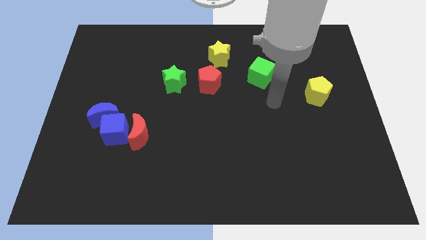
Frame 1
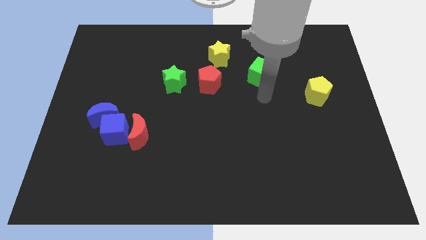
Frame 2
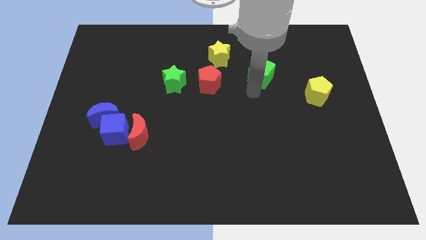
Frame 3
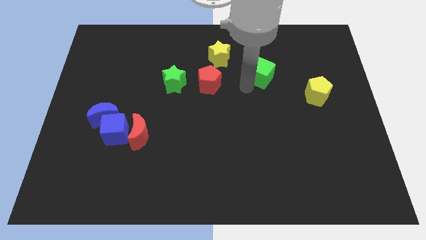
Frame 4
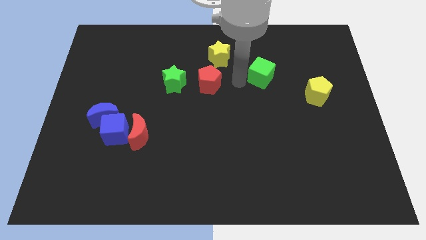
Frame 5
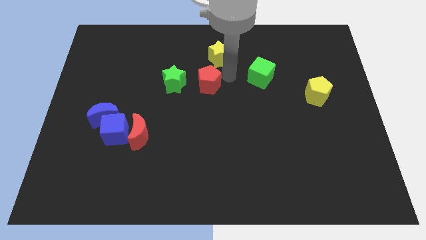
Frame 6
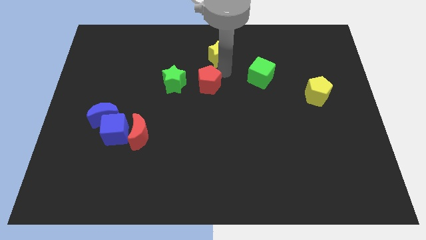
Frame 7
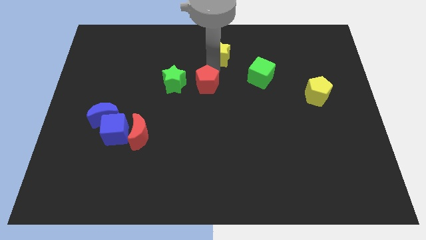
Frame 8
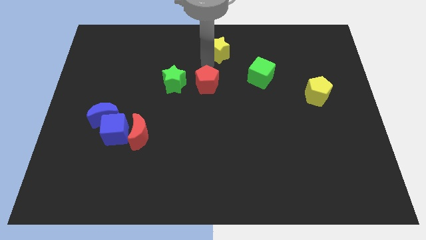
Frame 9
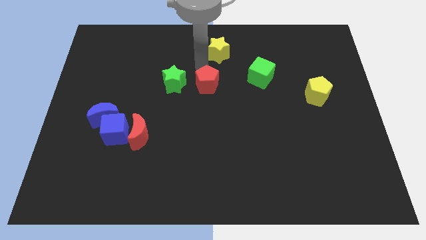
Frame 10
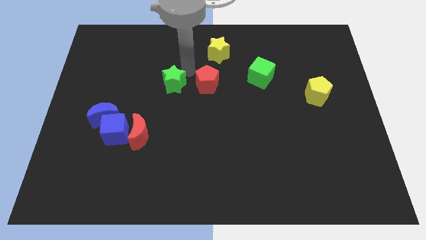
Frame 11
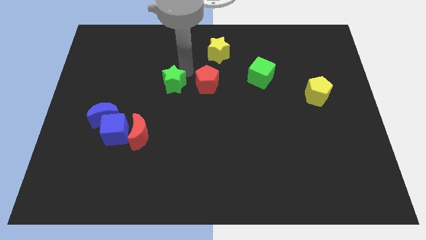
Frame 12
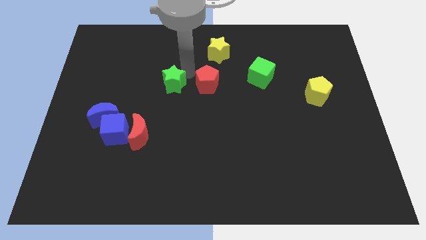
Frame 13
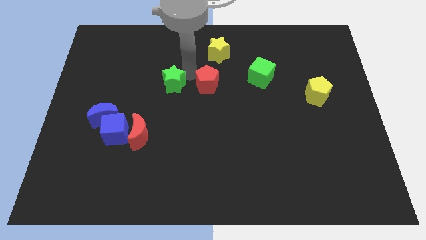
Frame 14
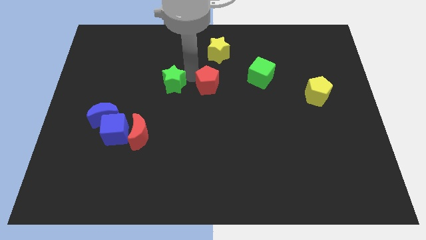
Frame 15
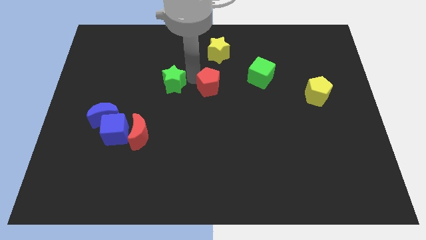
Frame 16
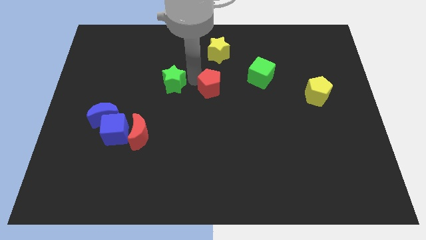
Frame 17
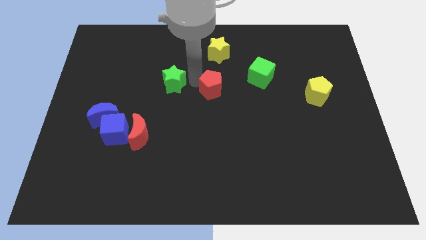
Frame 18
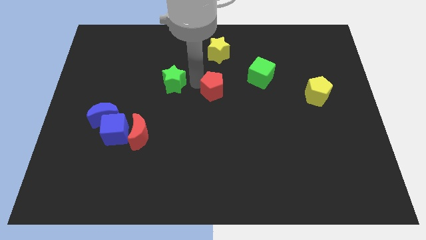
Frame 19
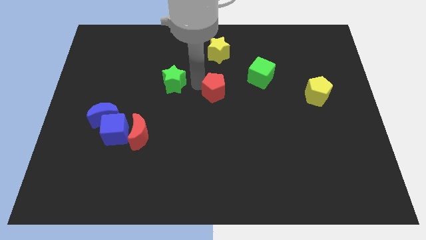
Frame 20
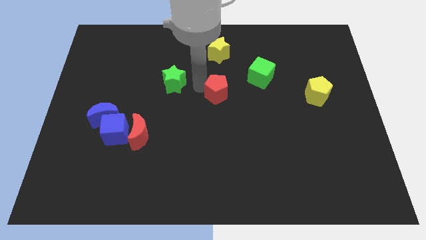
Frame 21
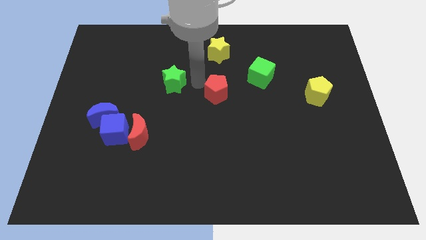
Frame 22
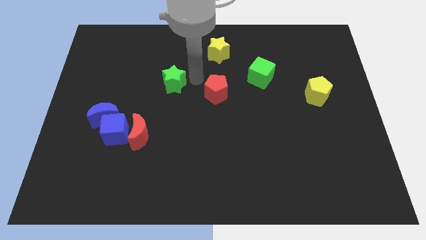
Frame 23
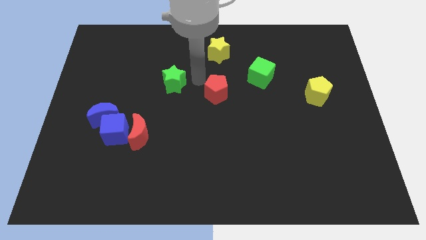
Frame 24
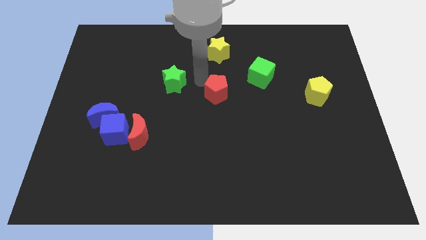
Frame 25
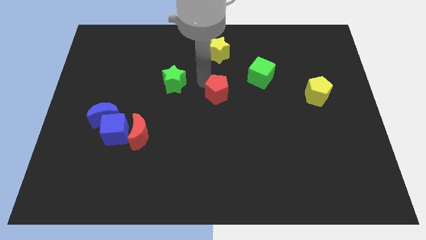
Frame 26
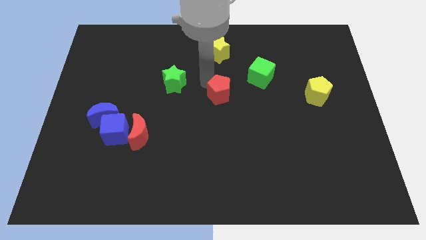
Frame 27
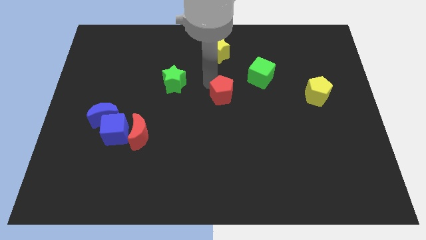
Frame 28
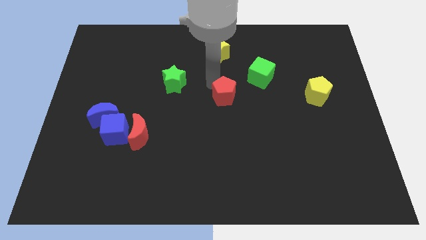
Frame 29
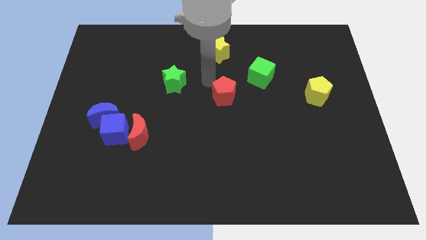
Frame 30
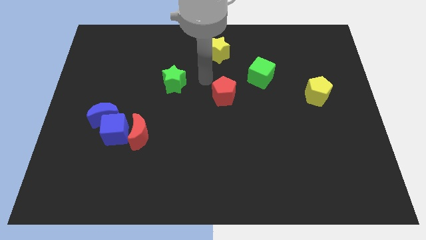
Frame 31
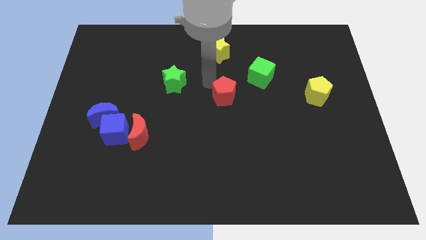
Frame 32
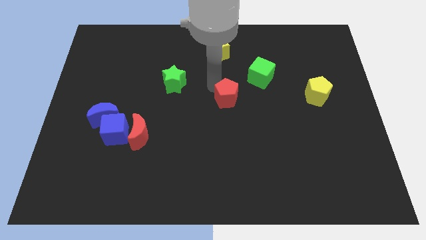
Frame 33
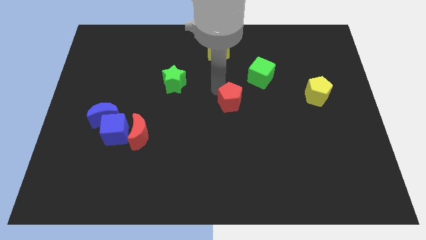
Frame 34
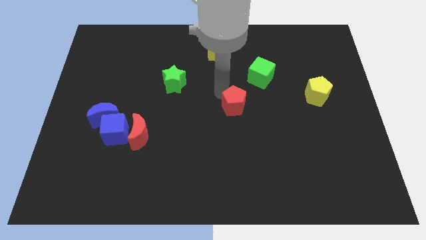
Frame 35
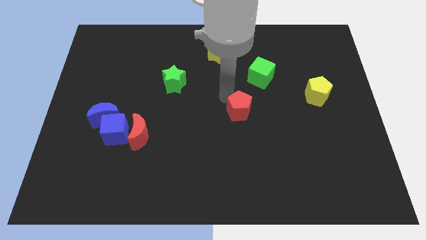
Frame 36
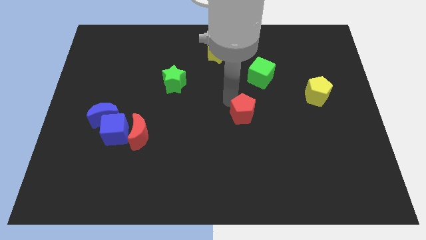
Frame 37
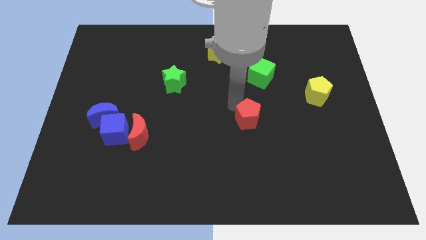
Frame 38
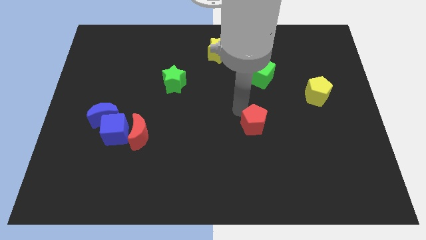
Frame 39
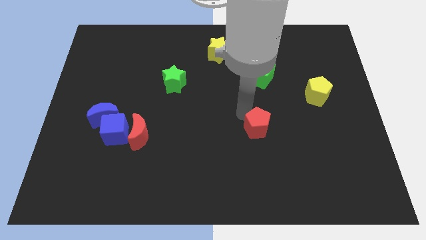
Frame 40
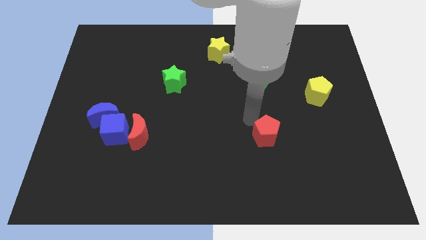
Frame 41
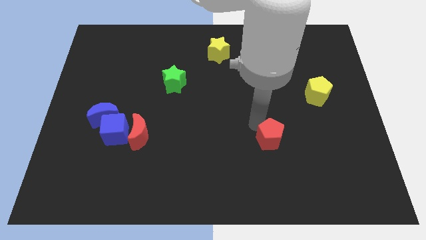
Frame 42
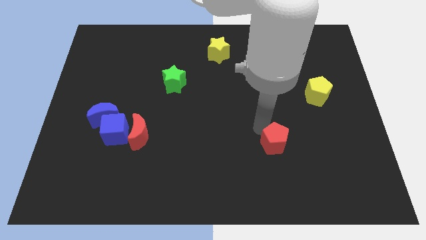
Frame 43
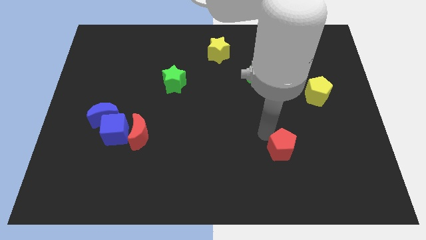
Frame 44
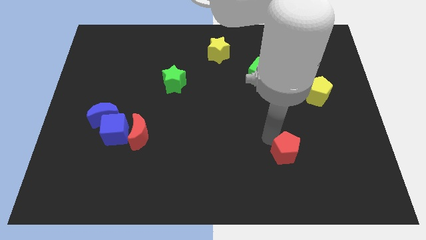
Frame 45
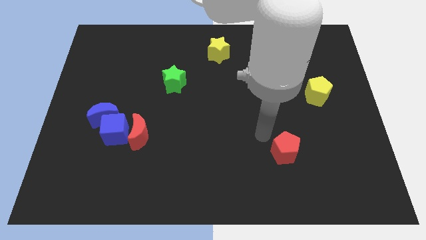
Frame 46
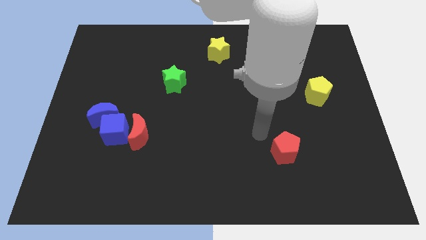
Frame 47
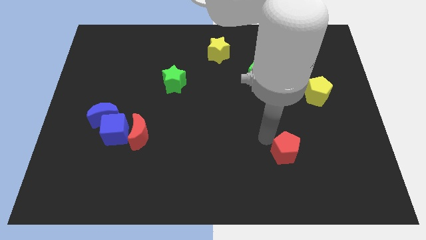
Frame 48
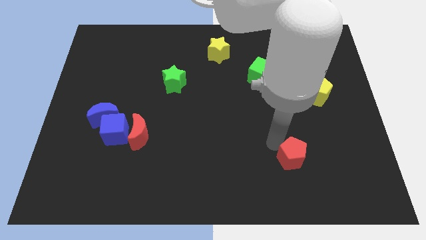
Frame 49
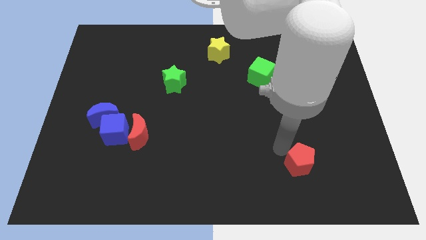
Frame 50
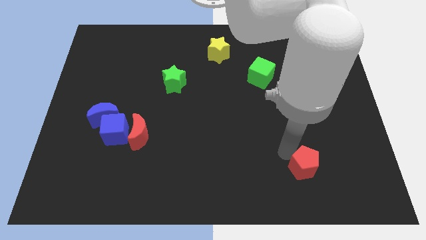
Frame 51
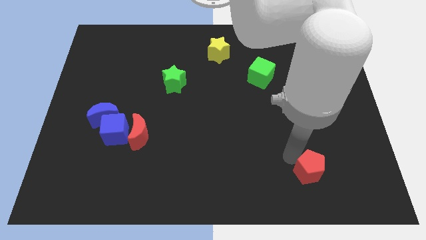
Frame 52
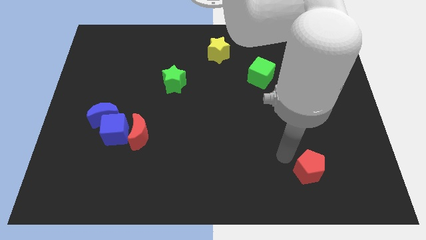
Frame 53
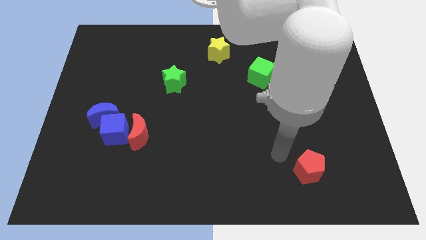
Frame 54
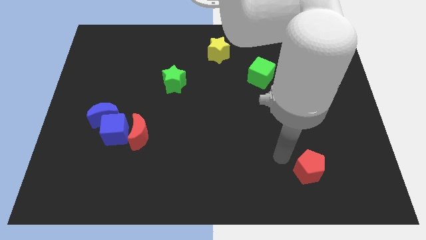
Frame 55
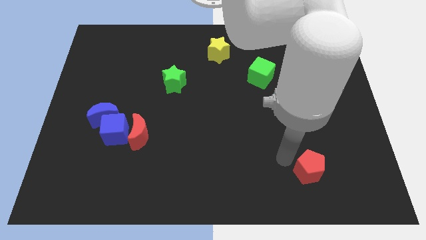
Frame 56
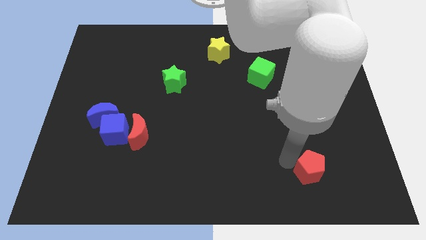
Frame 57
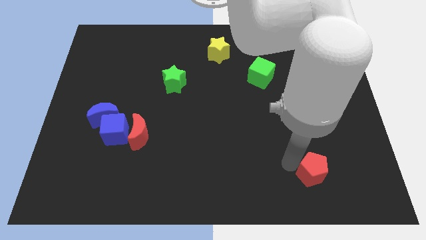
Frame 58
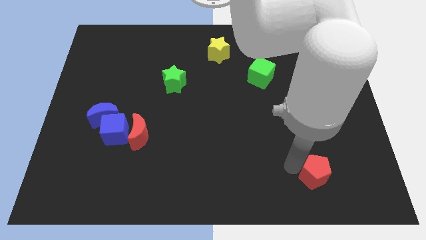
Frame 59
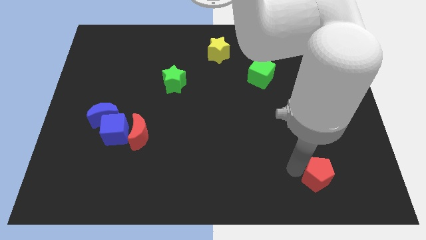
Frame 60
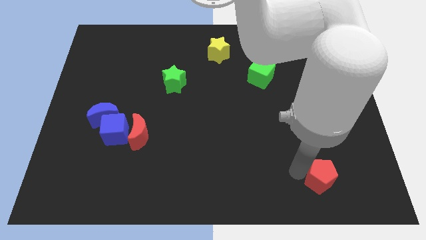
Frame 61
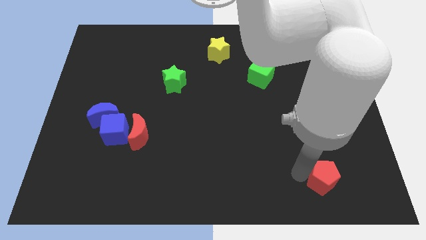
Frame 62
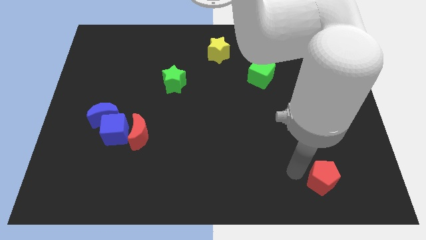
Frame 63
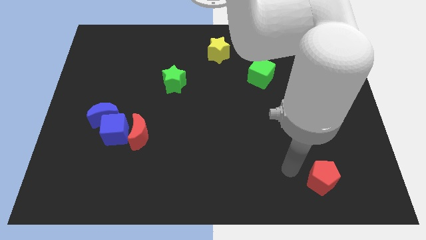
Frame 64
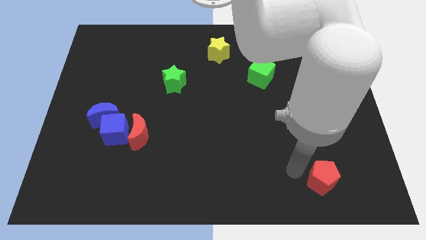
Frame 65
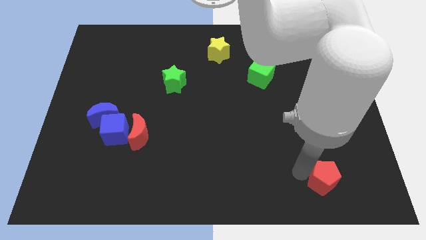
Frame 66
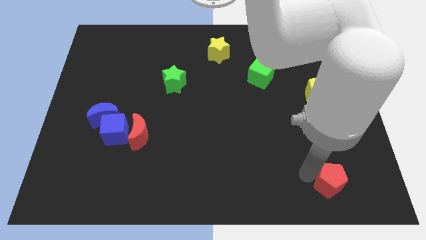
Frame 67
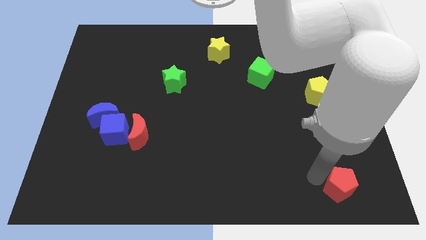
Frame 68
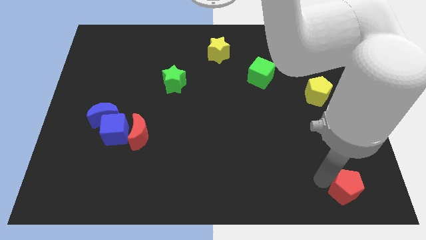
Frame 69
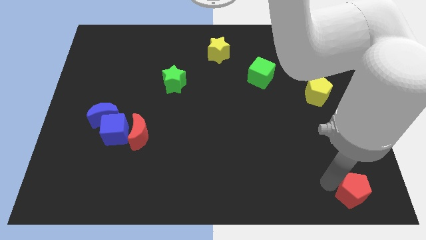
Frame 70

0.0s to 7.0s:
push the red pentagon to the bottom right of the board
